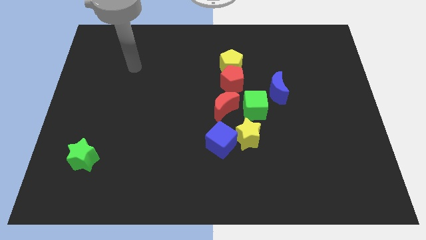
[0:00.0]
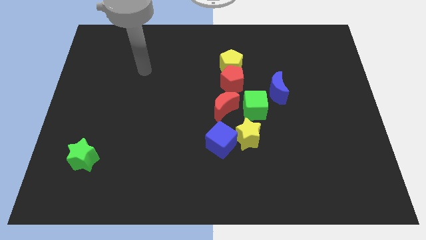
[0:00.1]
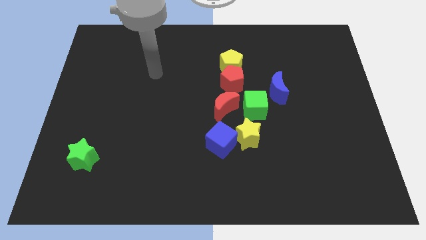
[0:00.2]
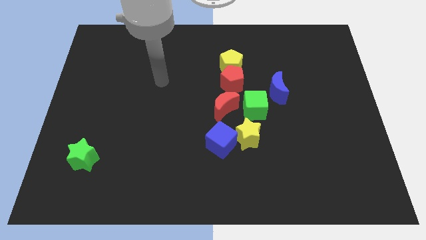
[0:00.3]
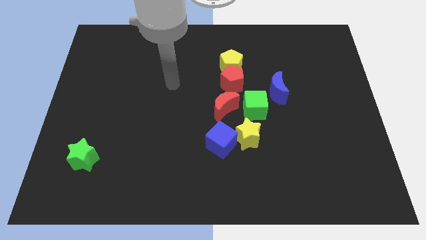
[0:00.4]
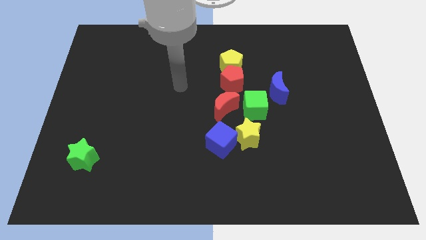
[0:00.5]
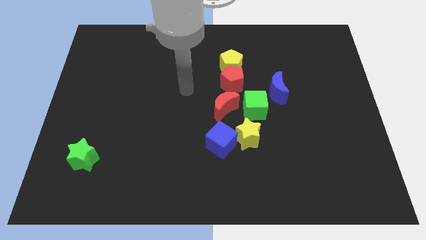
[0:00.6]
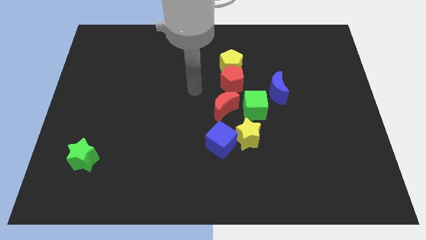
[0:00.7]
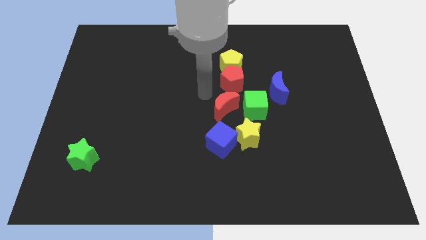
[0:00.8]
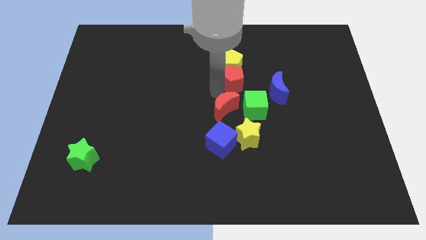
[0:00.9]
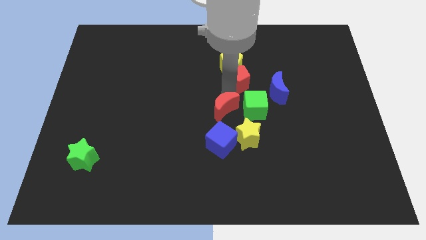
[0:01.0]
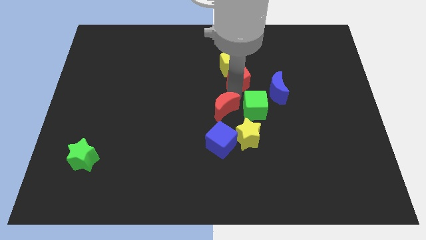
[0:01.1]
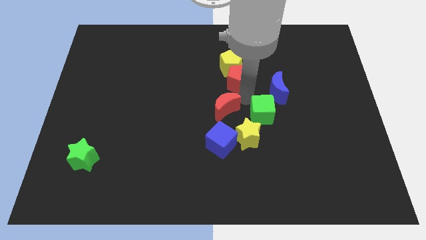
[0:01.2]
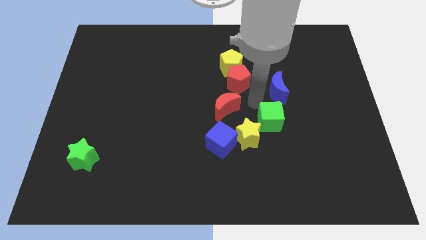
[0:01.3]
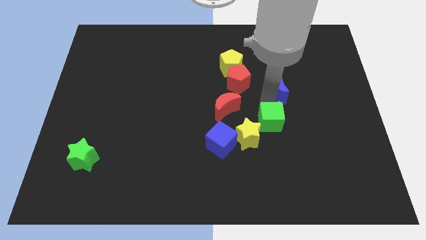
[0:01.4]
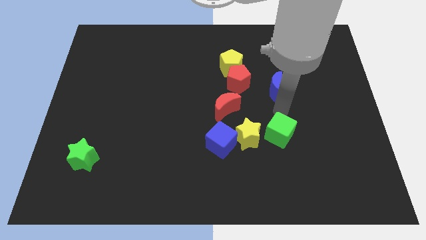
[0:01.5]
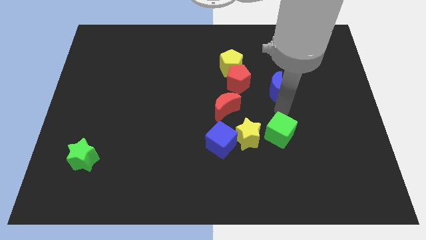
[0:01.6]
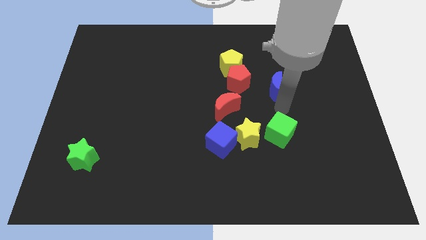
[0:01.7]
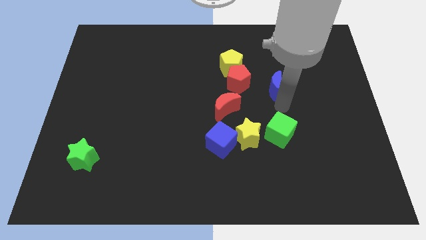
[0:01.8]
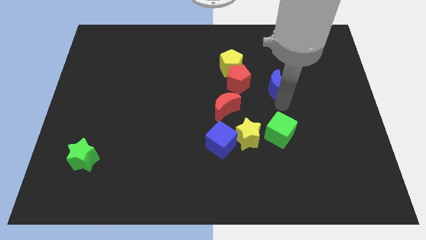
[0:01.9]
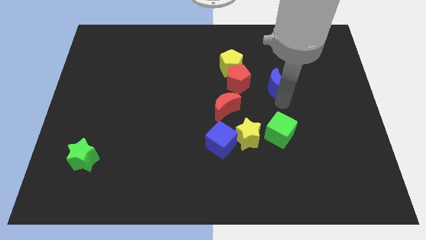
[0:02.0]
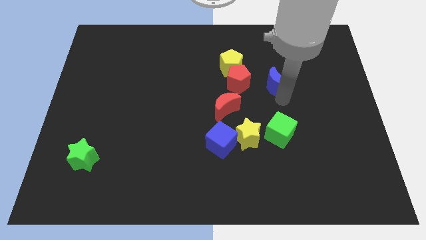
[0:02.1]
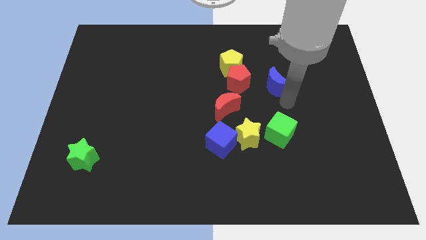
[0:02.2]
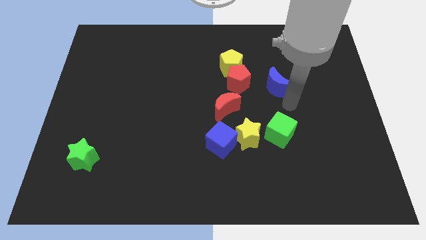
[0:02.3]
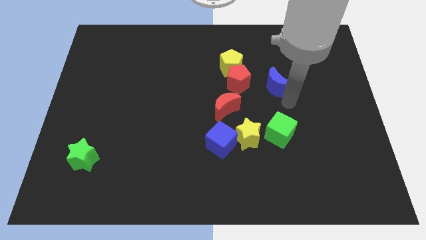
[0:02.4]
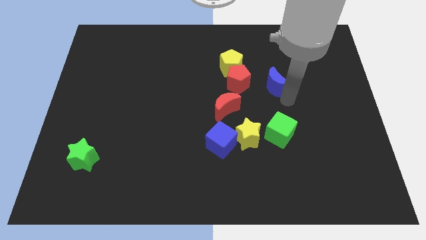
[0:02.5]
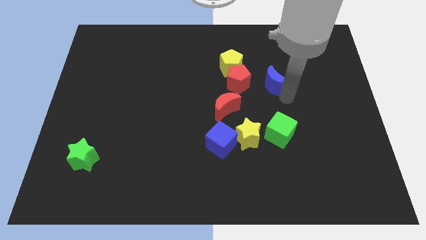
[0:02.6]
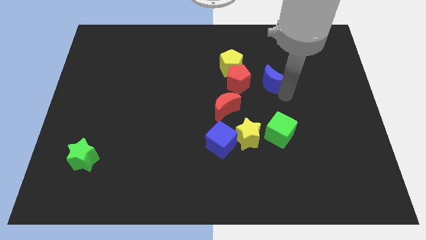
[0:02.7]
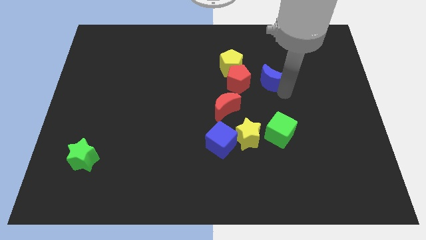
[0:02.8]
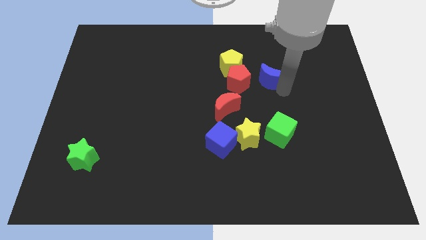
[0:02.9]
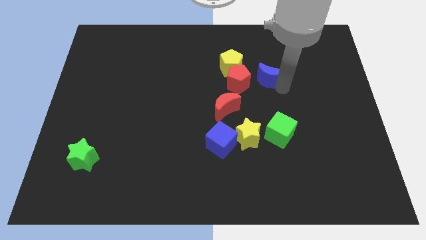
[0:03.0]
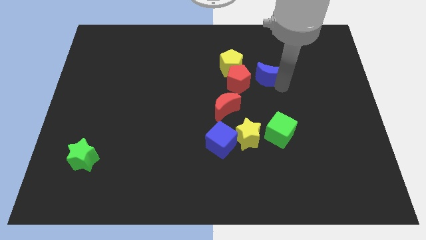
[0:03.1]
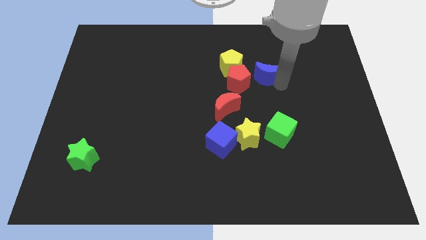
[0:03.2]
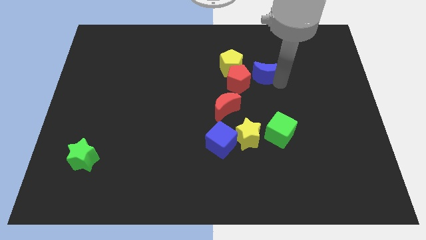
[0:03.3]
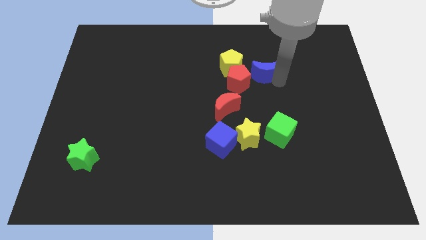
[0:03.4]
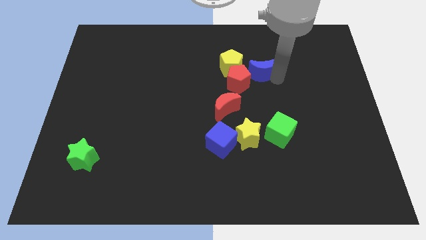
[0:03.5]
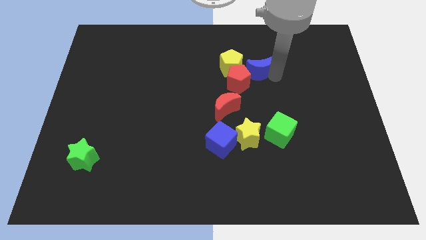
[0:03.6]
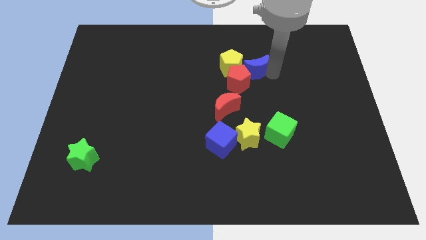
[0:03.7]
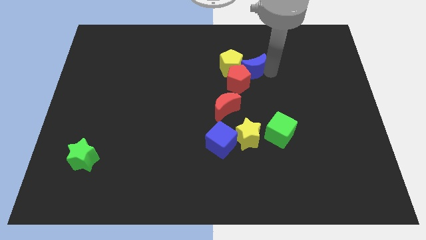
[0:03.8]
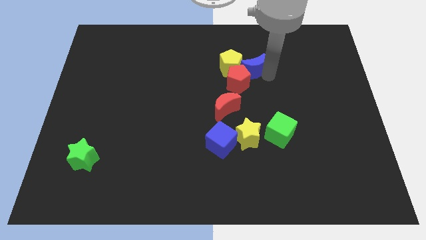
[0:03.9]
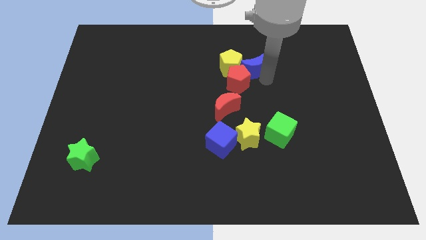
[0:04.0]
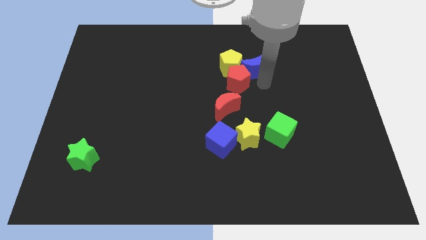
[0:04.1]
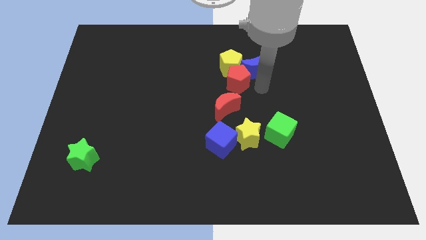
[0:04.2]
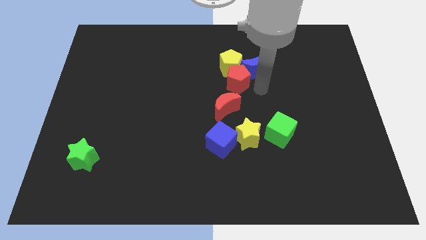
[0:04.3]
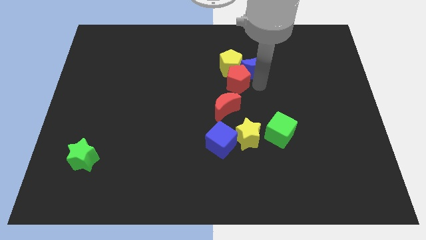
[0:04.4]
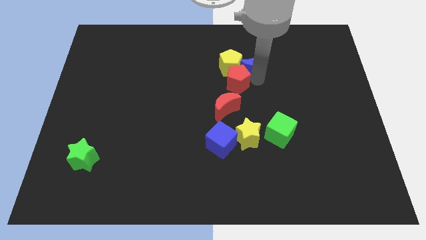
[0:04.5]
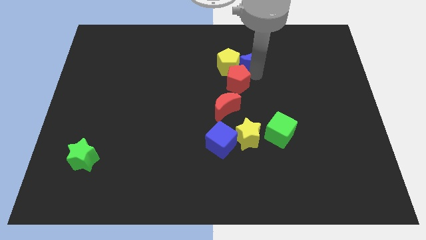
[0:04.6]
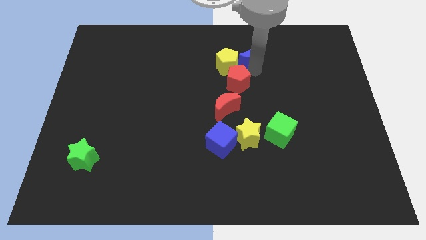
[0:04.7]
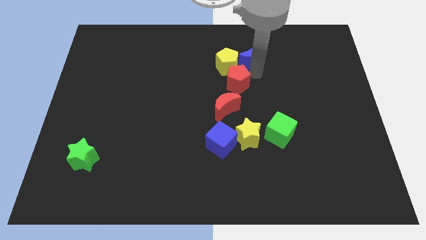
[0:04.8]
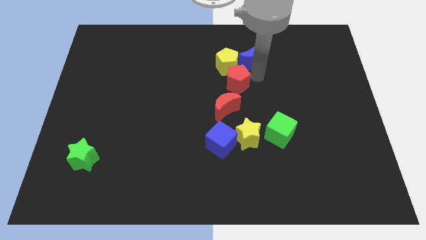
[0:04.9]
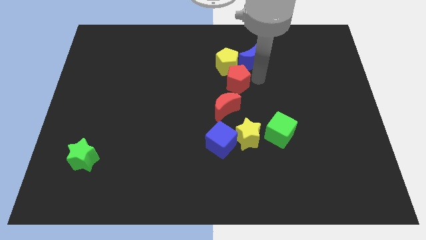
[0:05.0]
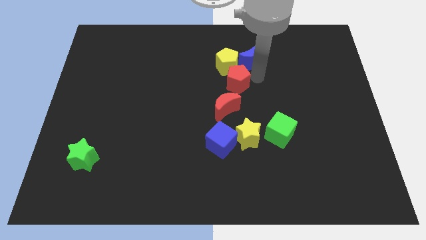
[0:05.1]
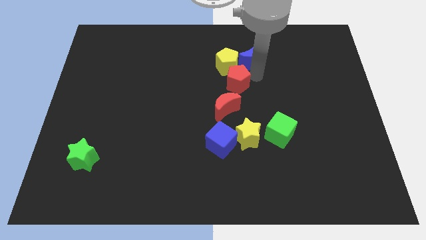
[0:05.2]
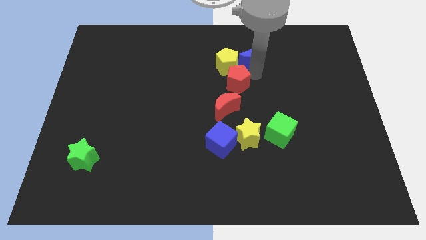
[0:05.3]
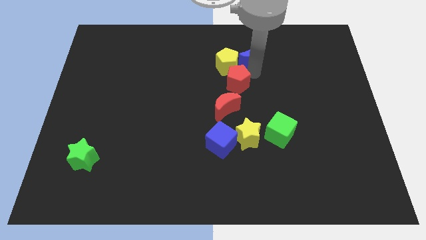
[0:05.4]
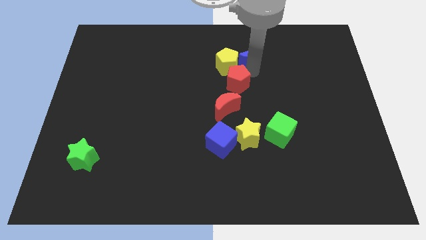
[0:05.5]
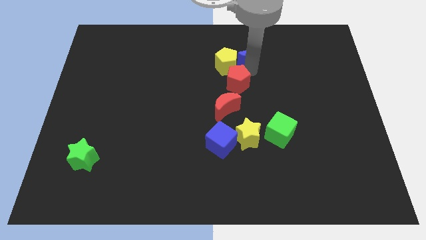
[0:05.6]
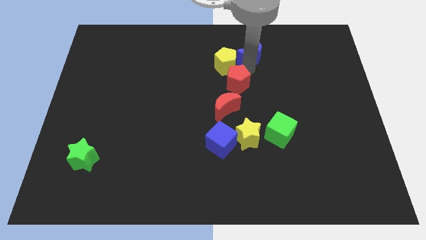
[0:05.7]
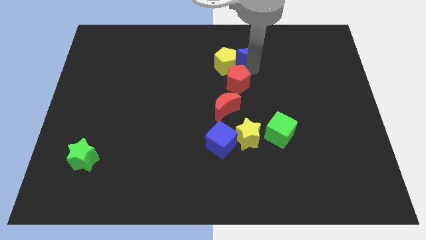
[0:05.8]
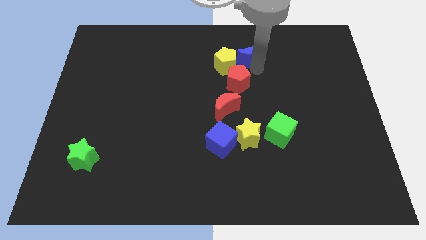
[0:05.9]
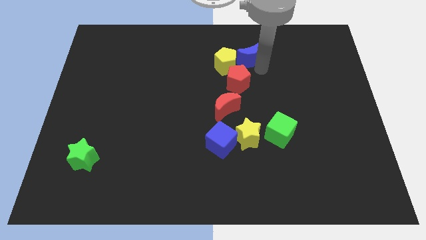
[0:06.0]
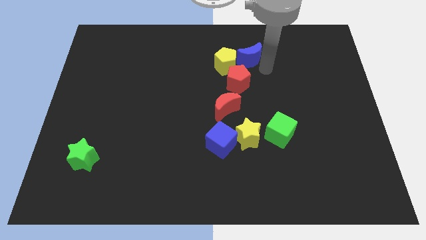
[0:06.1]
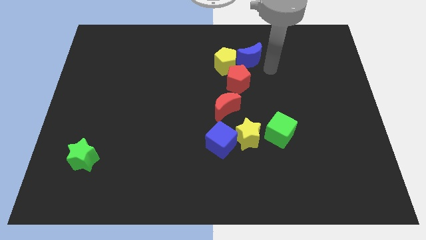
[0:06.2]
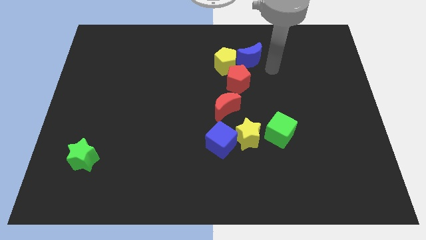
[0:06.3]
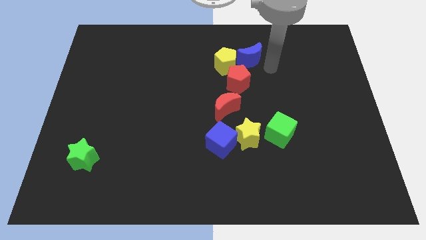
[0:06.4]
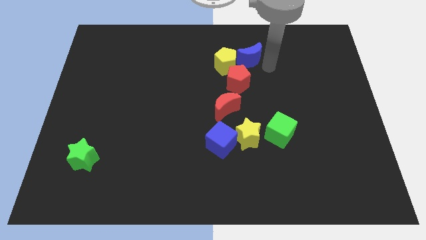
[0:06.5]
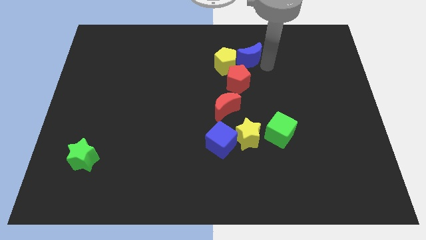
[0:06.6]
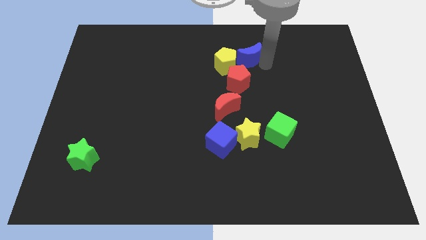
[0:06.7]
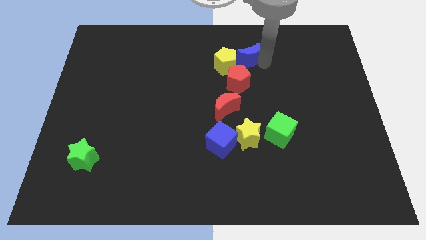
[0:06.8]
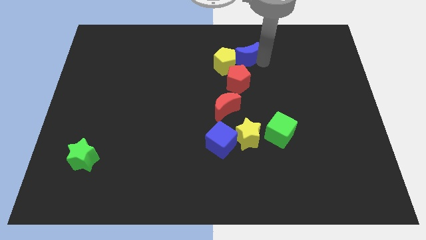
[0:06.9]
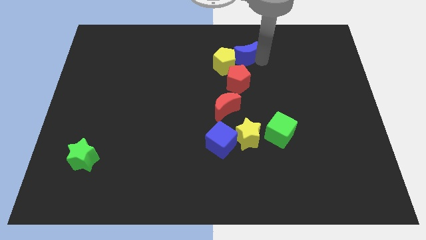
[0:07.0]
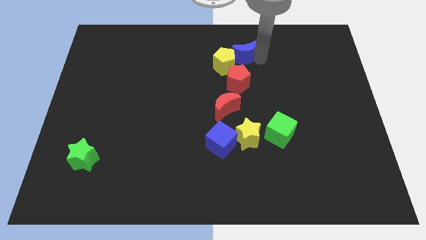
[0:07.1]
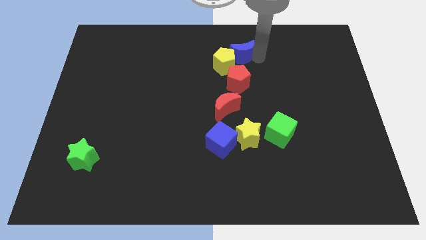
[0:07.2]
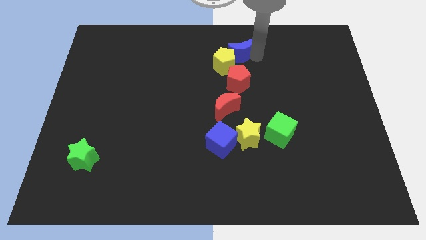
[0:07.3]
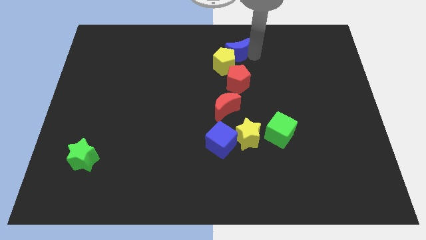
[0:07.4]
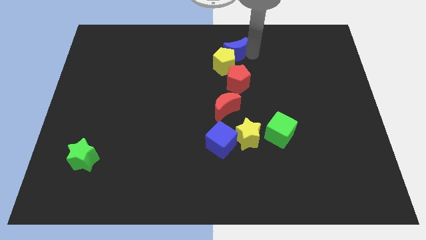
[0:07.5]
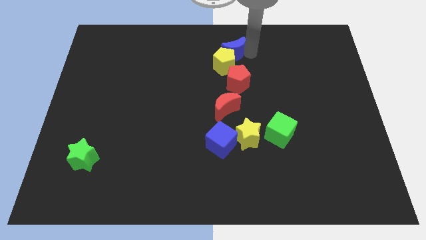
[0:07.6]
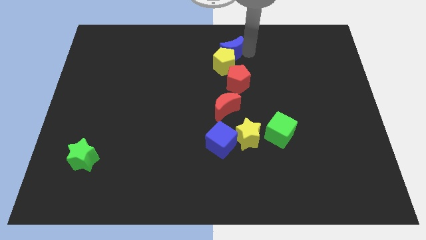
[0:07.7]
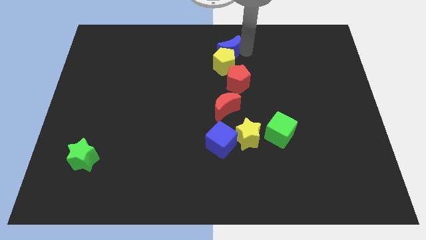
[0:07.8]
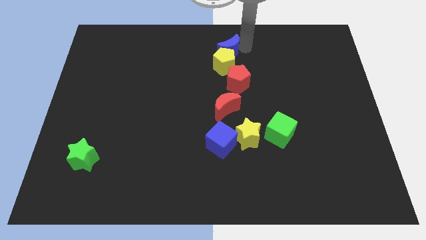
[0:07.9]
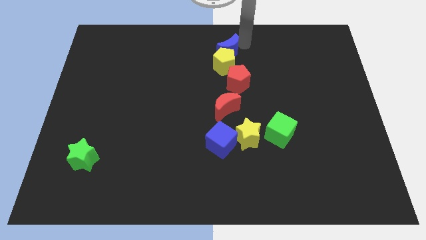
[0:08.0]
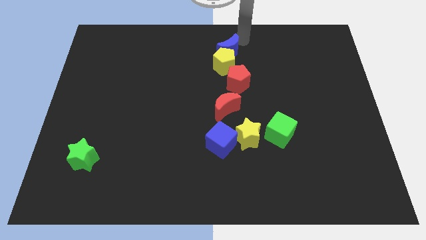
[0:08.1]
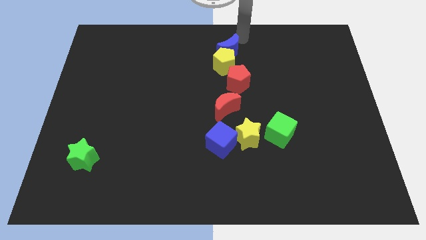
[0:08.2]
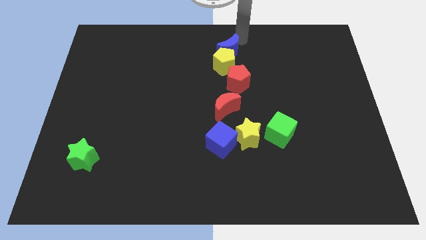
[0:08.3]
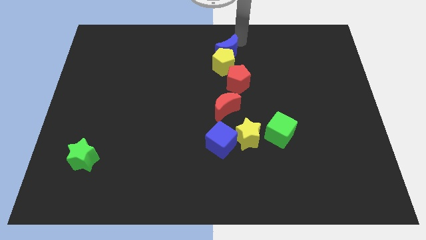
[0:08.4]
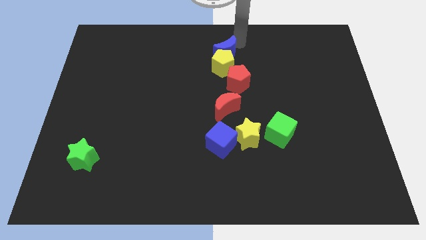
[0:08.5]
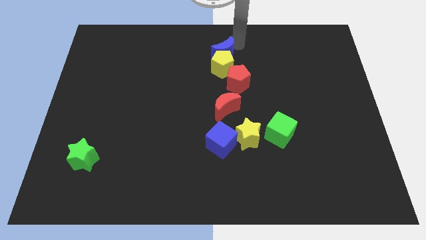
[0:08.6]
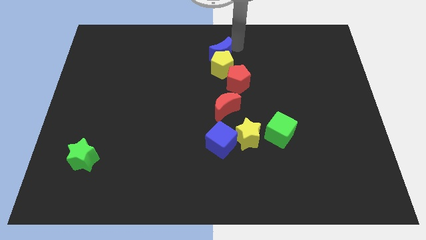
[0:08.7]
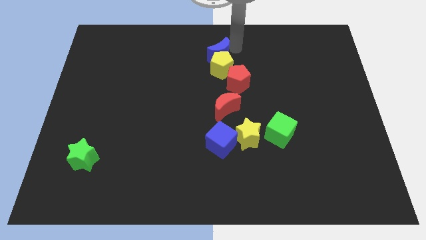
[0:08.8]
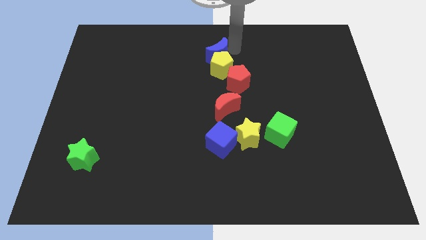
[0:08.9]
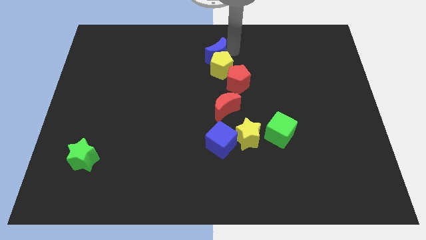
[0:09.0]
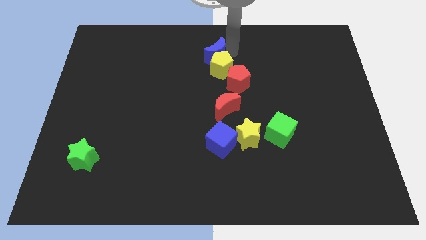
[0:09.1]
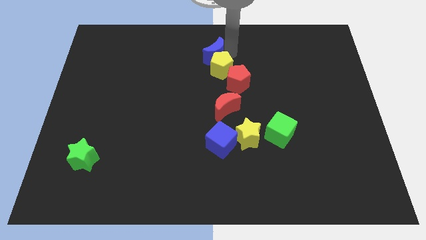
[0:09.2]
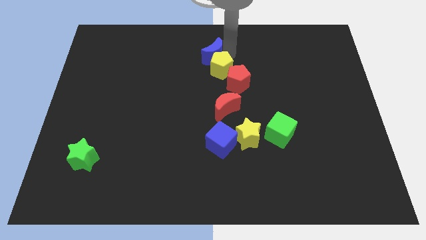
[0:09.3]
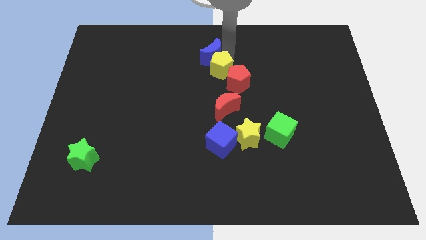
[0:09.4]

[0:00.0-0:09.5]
push the blue moon left a little bit
